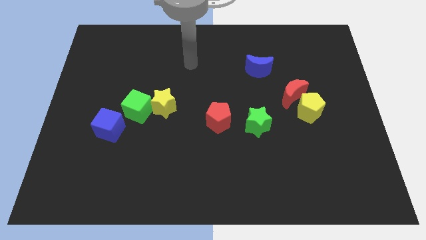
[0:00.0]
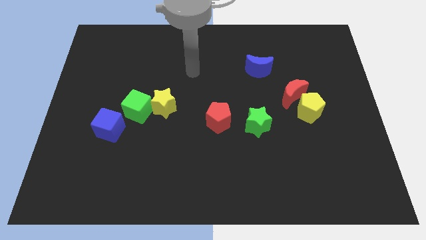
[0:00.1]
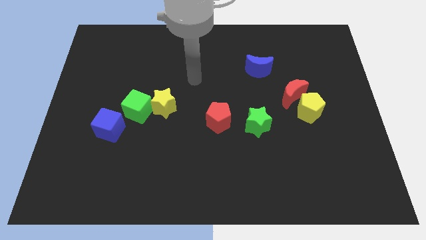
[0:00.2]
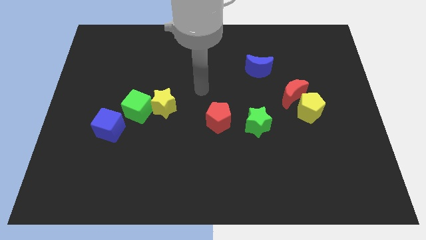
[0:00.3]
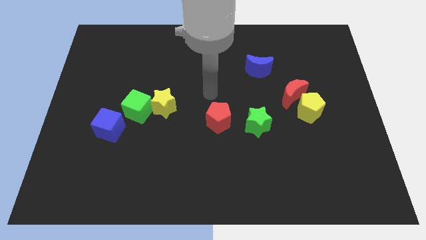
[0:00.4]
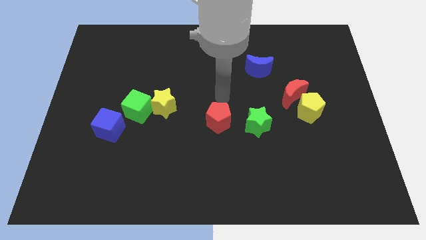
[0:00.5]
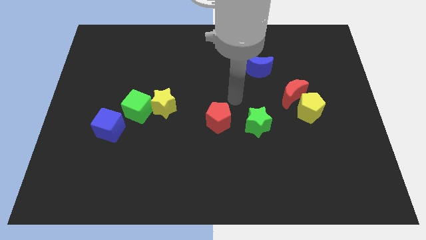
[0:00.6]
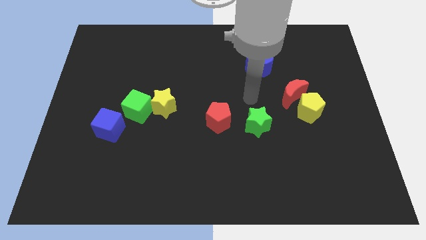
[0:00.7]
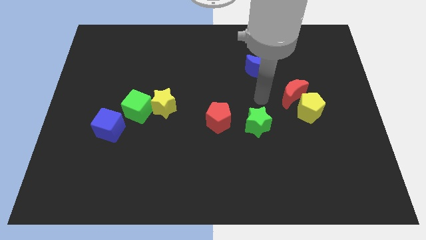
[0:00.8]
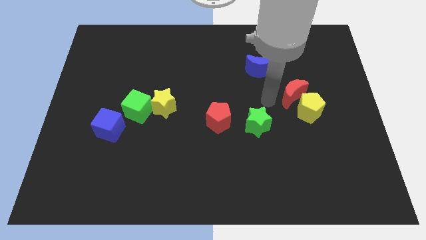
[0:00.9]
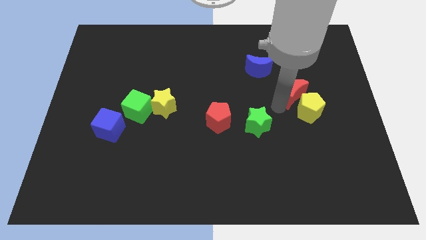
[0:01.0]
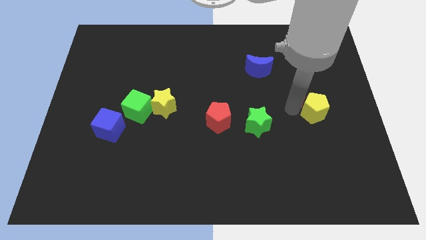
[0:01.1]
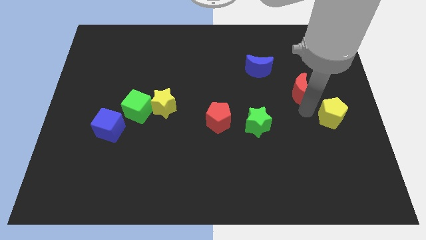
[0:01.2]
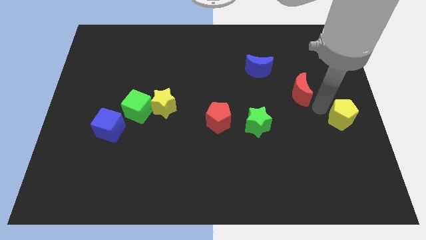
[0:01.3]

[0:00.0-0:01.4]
pull the red moon apart from the yellow pentagon

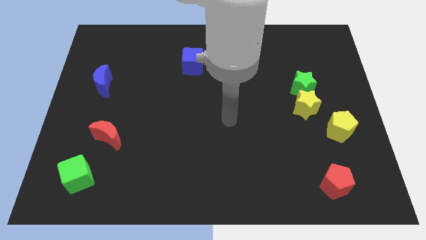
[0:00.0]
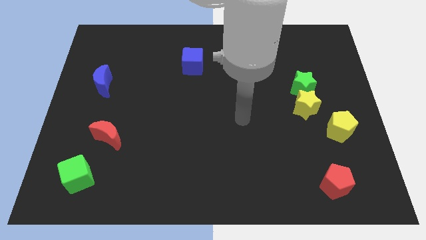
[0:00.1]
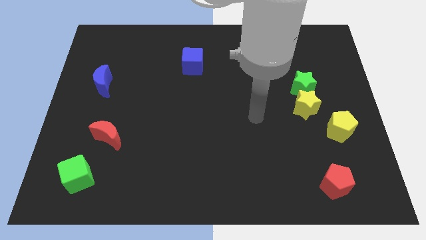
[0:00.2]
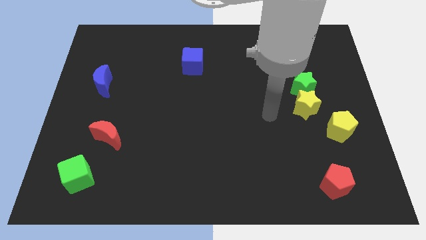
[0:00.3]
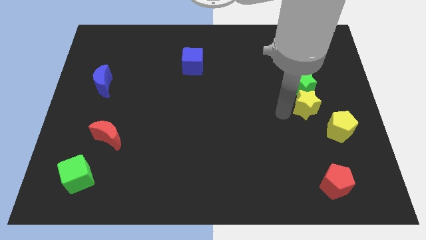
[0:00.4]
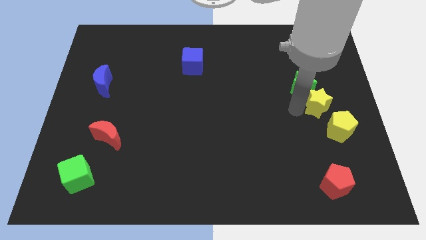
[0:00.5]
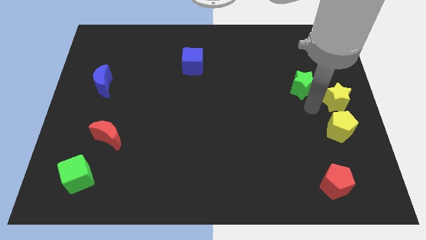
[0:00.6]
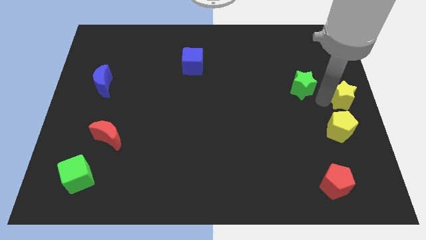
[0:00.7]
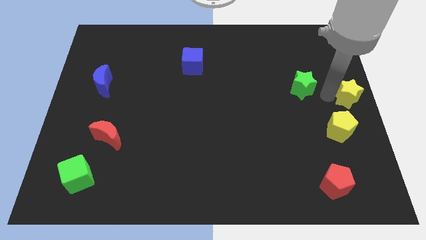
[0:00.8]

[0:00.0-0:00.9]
move the green star away from the yellow star

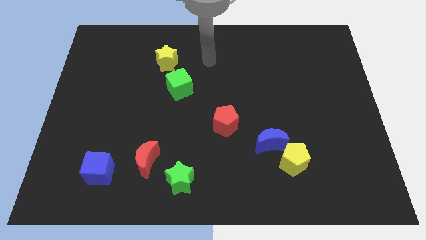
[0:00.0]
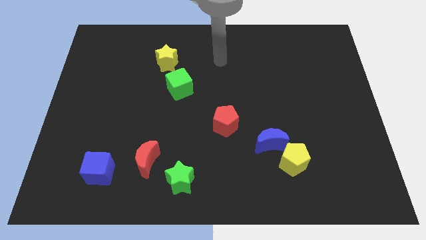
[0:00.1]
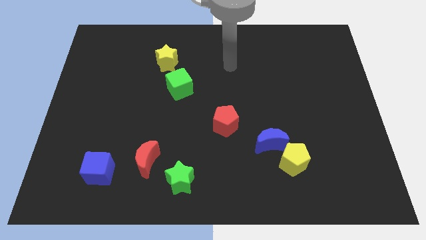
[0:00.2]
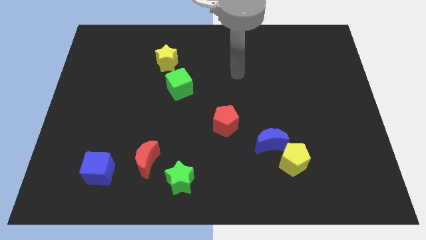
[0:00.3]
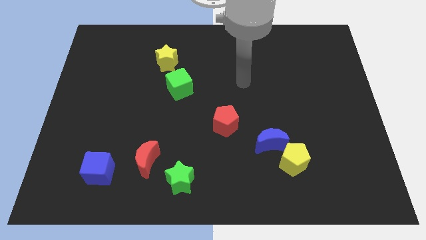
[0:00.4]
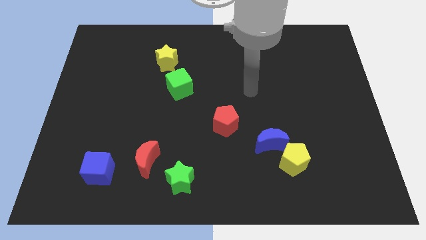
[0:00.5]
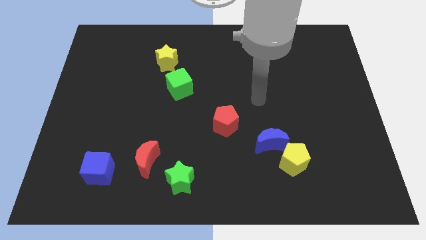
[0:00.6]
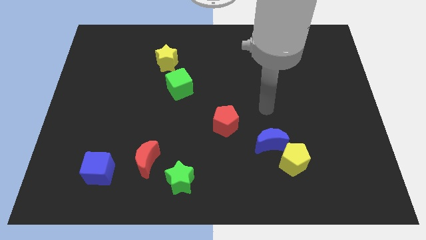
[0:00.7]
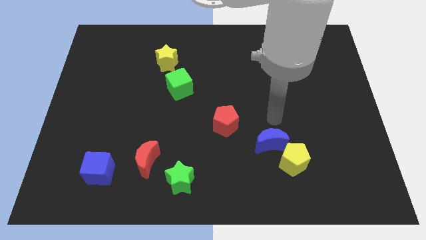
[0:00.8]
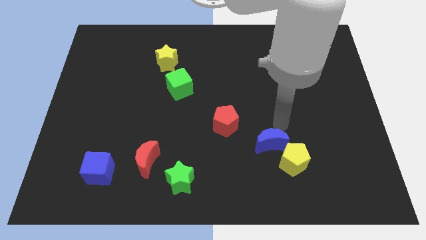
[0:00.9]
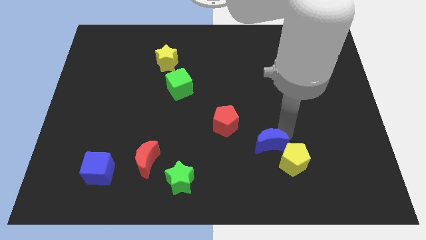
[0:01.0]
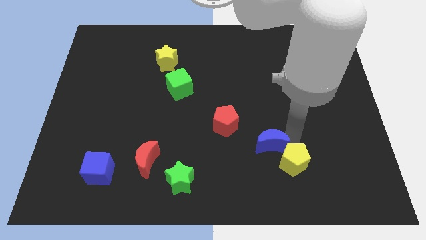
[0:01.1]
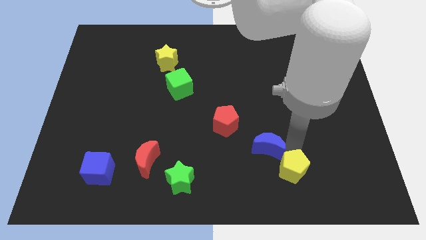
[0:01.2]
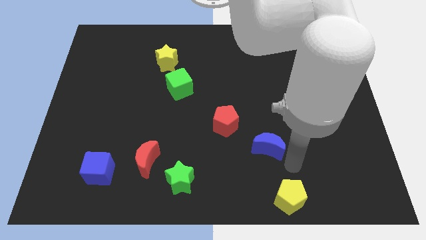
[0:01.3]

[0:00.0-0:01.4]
move the blue moon away from the yellow pentagon

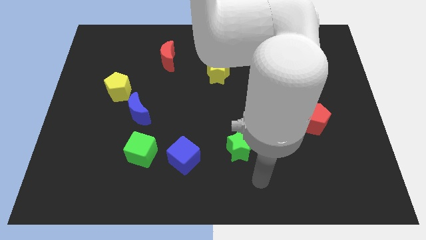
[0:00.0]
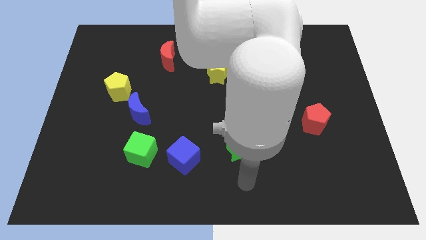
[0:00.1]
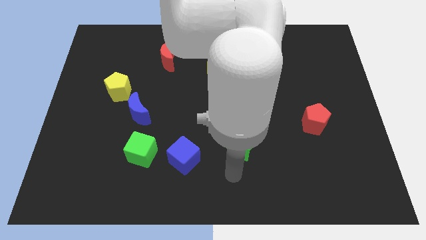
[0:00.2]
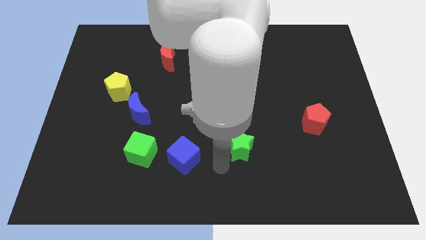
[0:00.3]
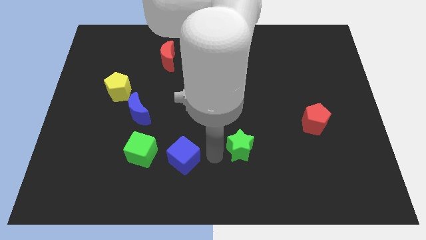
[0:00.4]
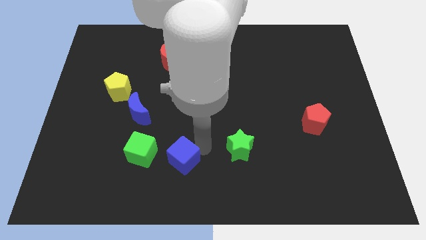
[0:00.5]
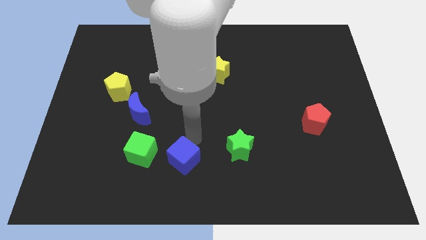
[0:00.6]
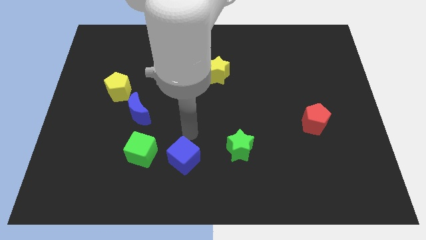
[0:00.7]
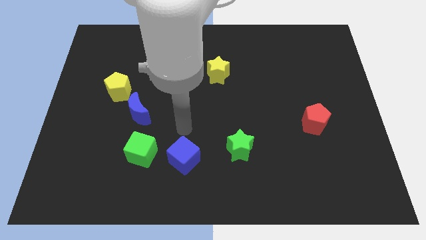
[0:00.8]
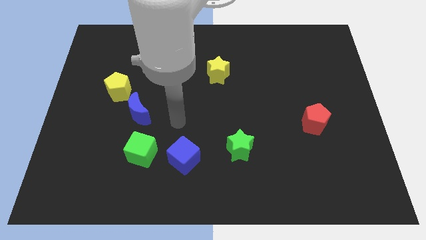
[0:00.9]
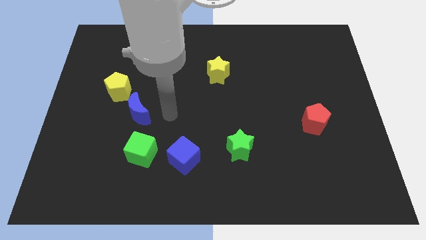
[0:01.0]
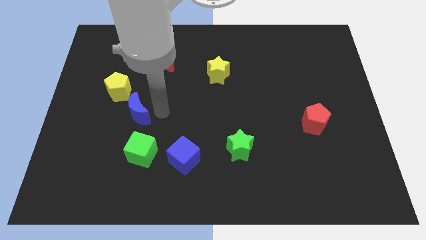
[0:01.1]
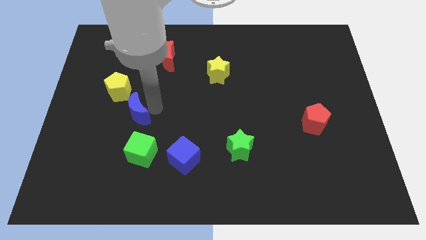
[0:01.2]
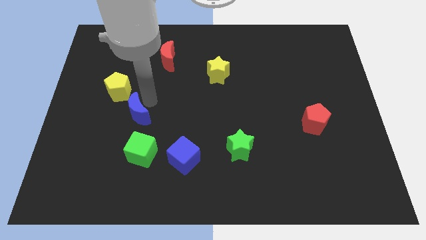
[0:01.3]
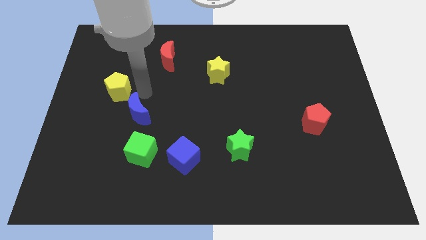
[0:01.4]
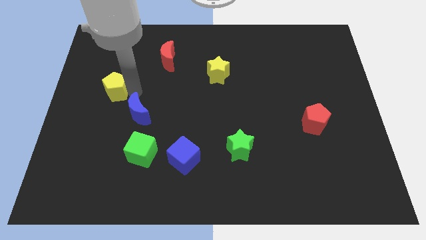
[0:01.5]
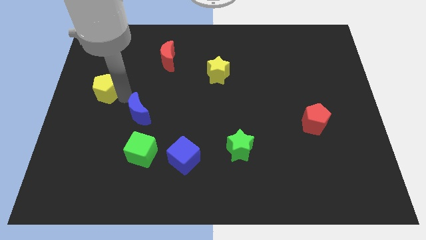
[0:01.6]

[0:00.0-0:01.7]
separate the blue moon from the yellow pentagon

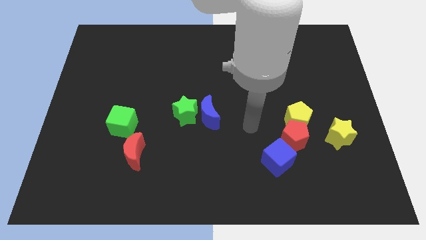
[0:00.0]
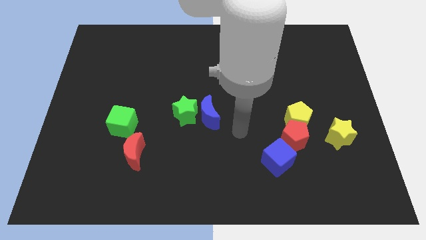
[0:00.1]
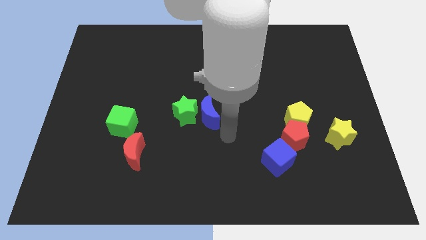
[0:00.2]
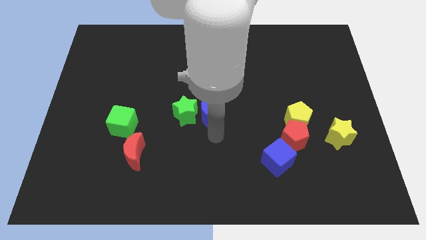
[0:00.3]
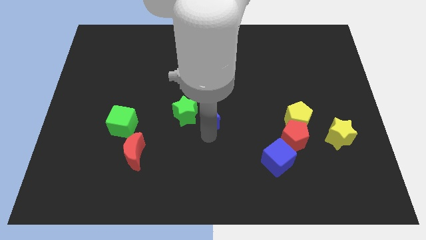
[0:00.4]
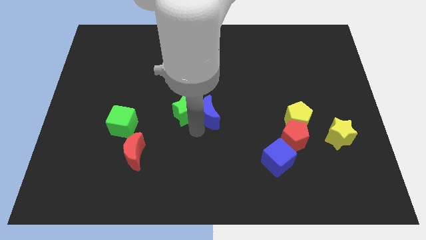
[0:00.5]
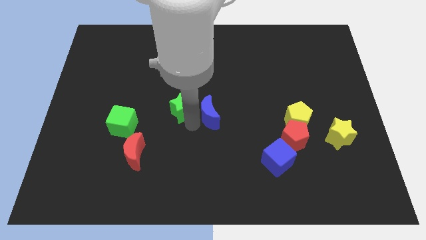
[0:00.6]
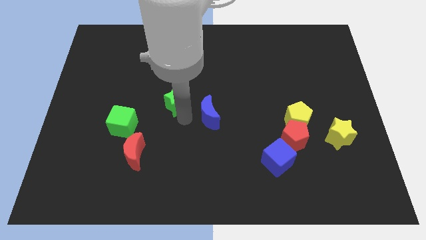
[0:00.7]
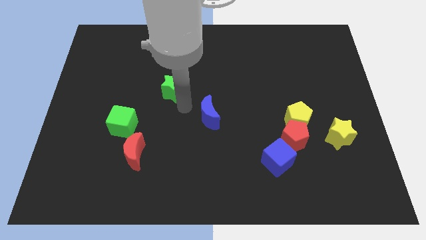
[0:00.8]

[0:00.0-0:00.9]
pull the blue moon apart from the green star

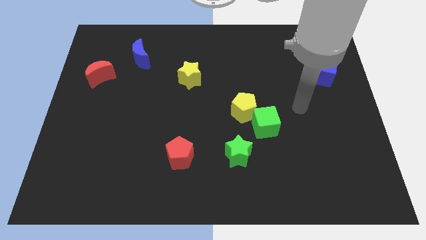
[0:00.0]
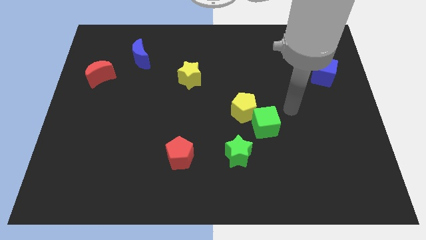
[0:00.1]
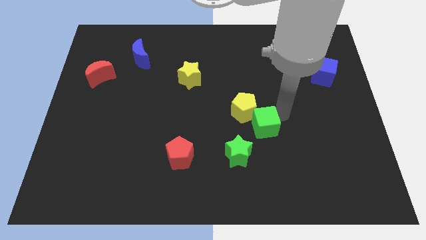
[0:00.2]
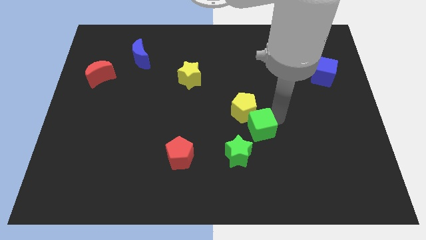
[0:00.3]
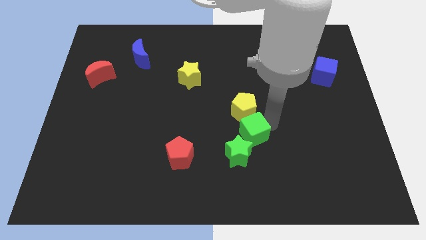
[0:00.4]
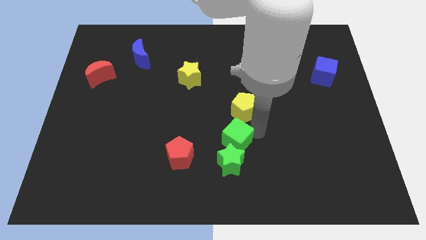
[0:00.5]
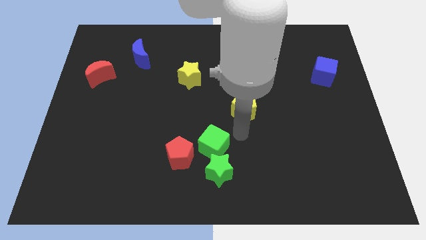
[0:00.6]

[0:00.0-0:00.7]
pull the yellow pentagon apart from the green cube

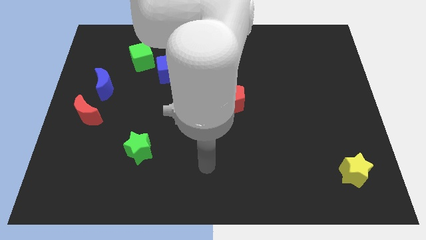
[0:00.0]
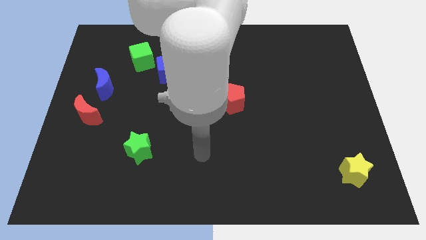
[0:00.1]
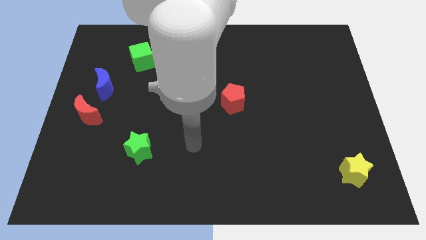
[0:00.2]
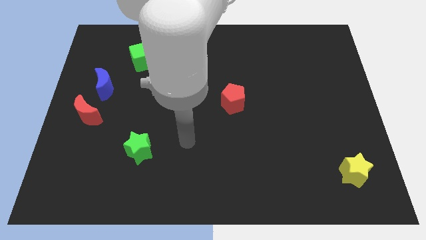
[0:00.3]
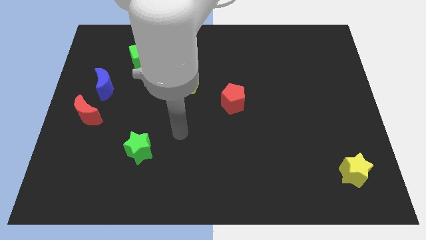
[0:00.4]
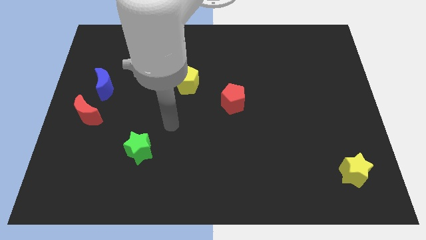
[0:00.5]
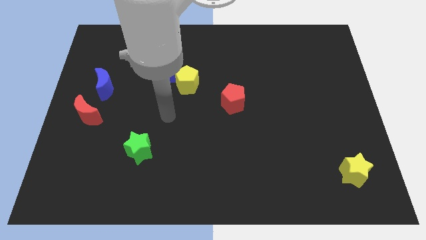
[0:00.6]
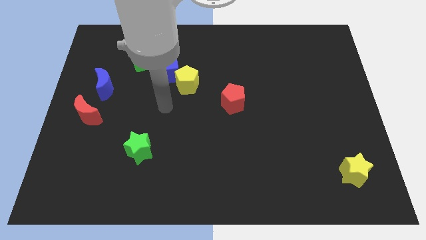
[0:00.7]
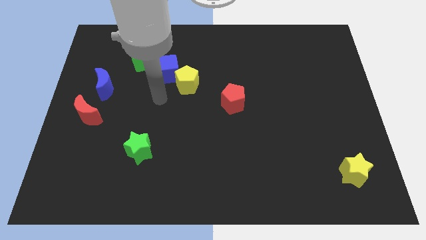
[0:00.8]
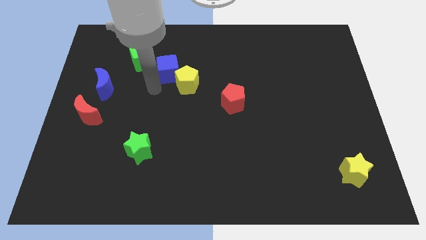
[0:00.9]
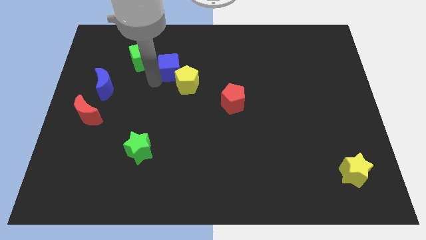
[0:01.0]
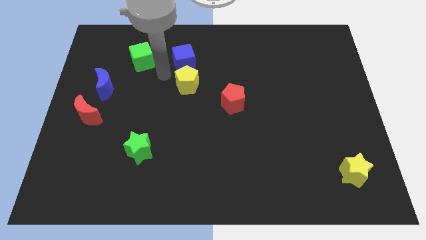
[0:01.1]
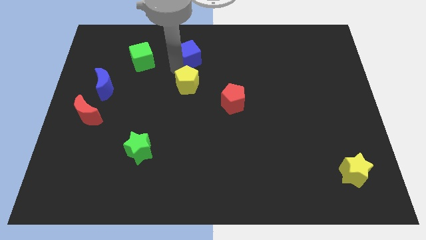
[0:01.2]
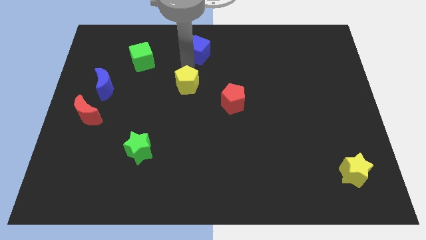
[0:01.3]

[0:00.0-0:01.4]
separate the yellow pentagon from the blue cube

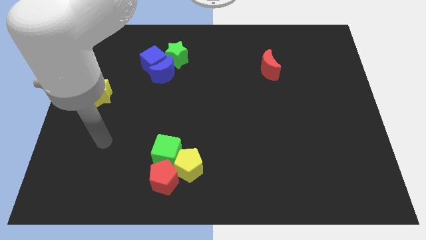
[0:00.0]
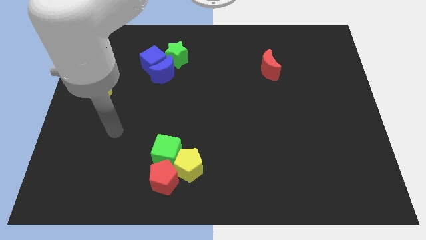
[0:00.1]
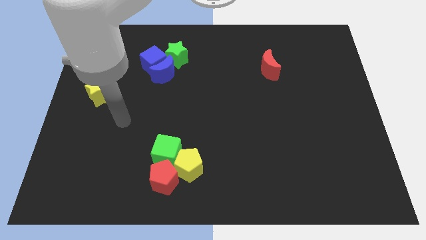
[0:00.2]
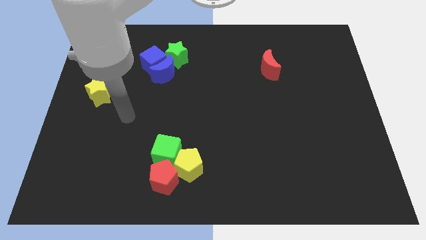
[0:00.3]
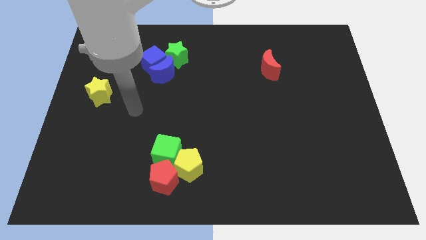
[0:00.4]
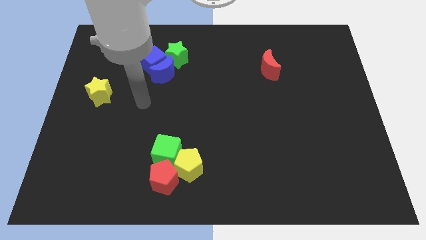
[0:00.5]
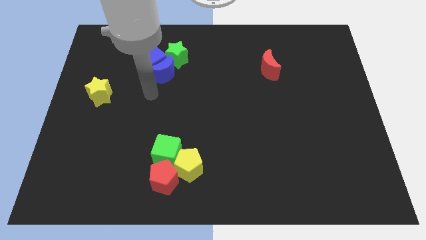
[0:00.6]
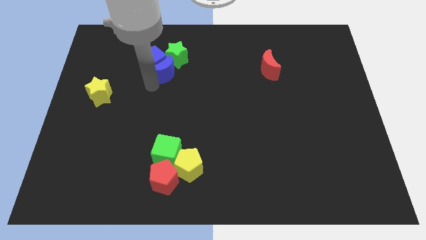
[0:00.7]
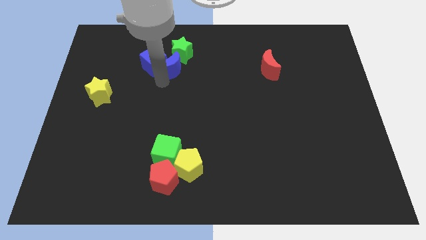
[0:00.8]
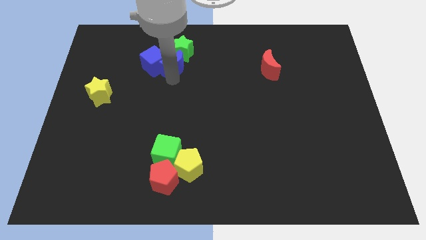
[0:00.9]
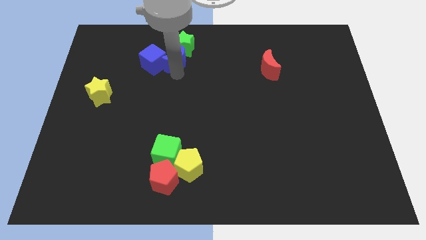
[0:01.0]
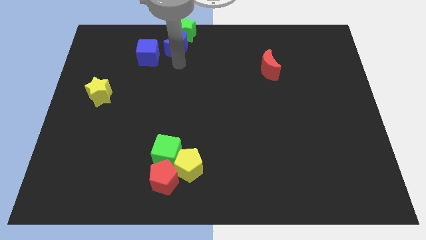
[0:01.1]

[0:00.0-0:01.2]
separate the blue cube from the blue moon and green star
